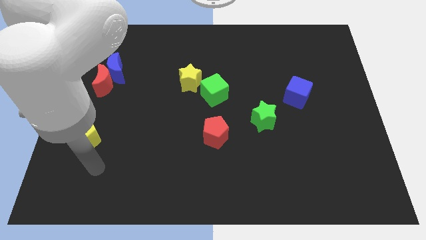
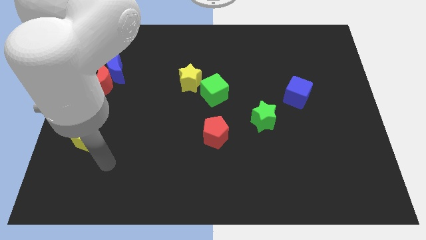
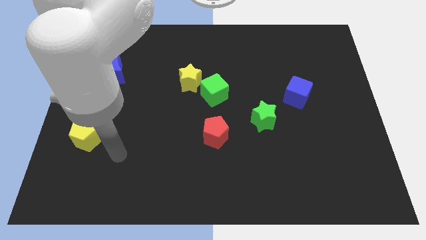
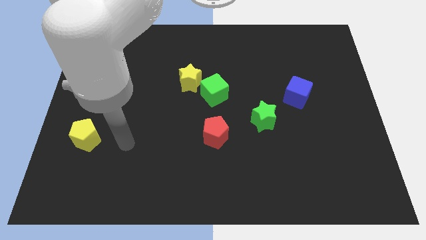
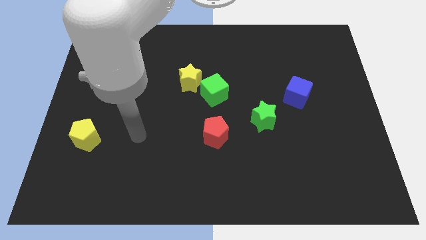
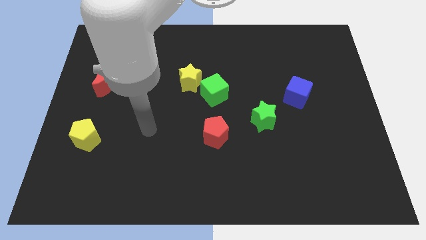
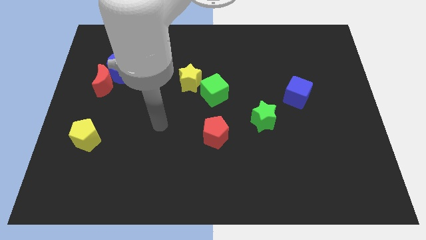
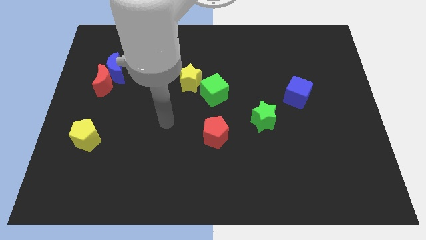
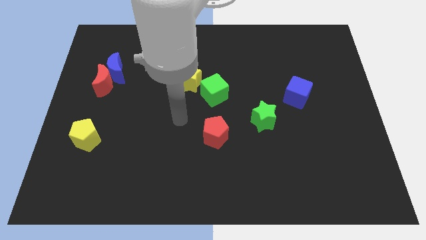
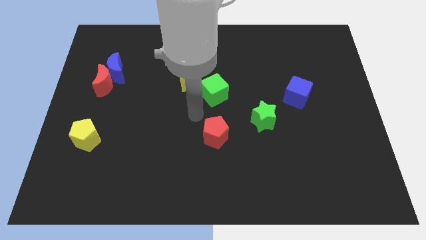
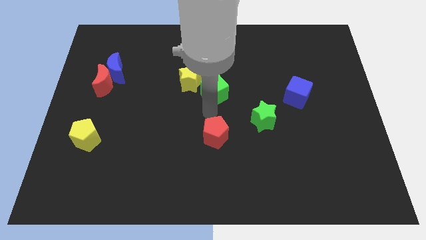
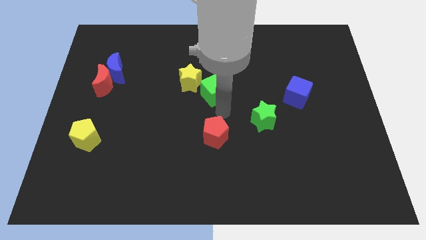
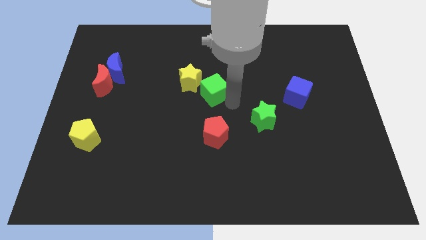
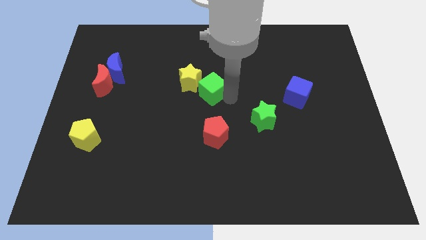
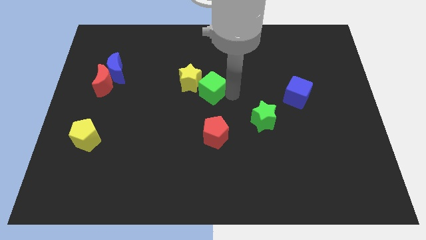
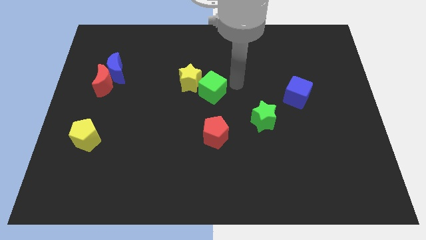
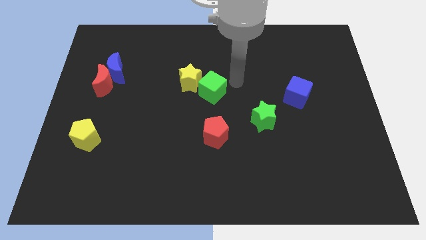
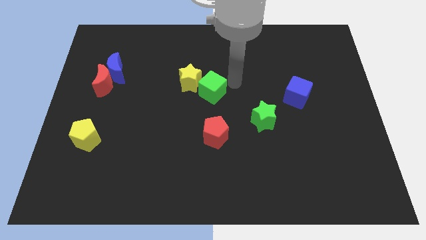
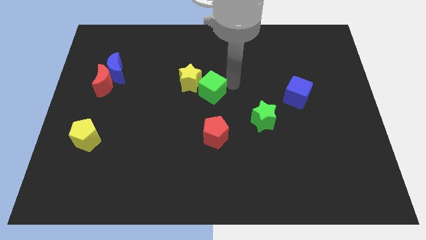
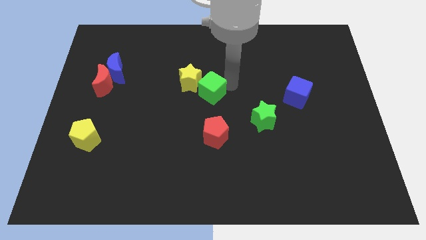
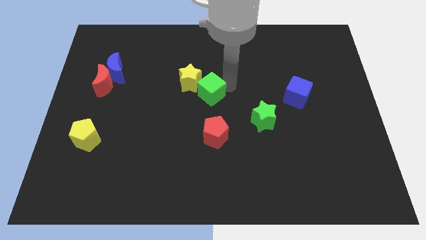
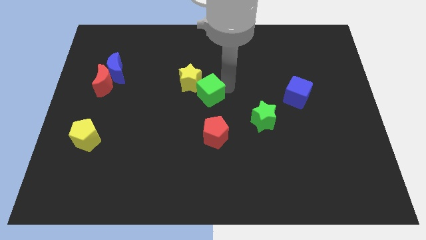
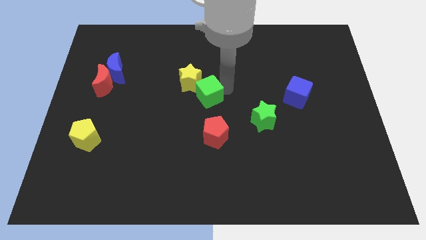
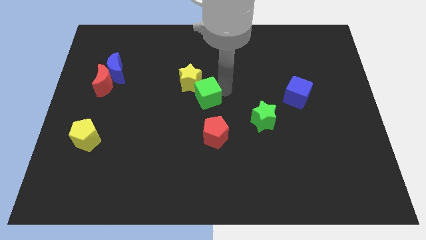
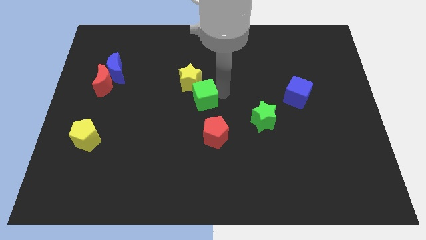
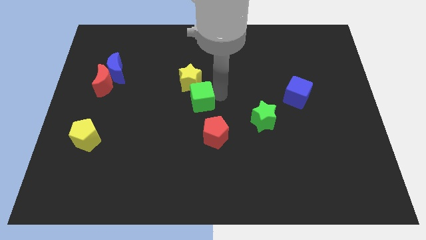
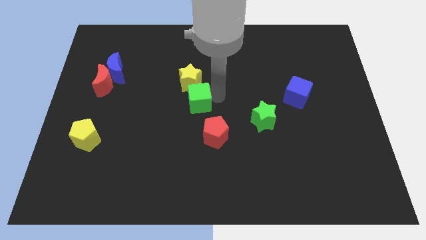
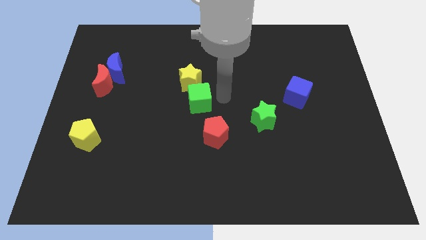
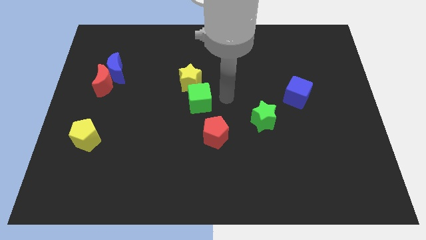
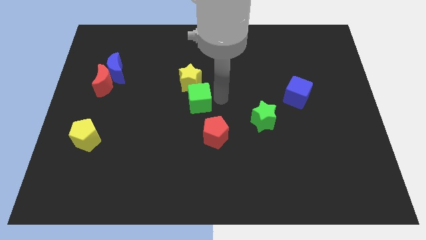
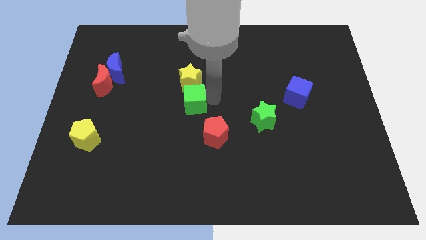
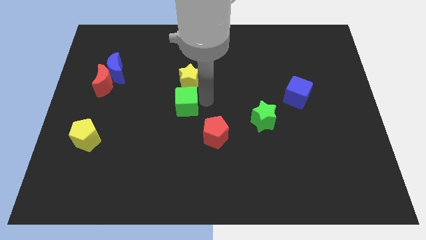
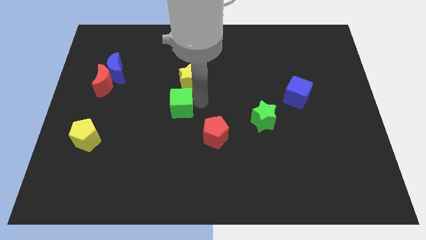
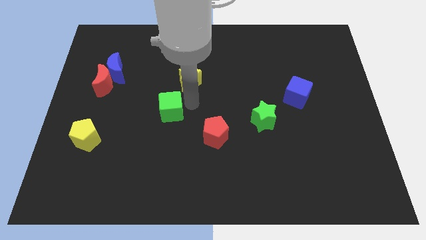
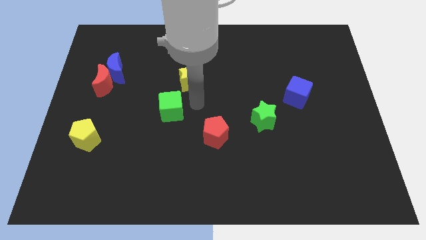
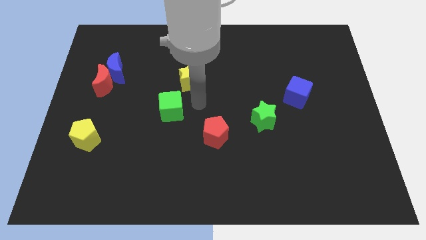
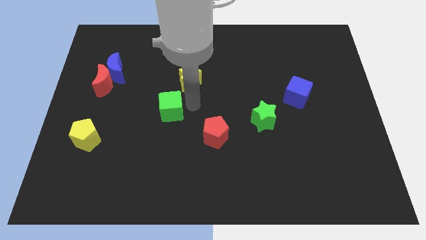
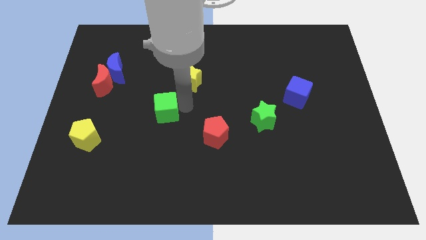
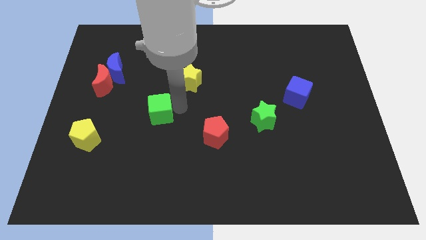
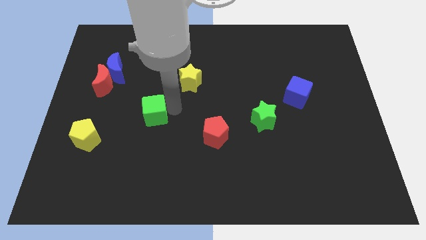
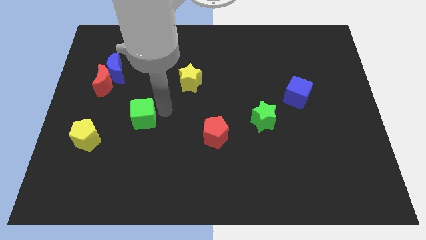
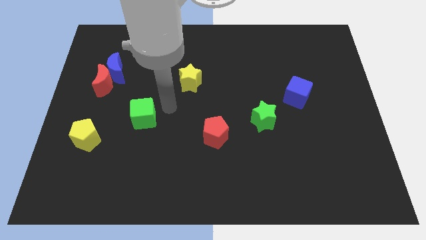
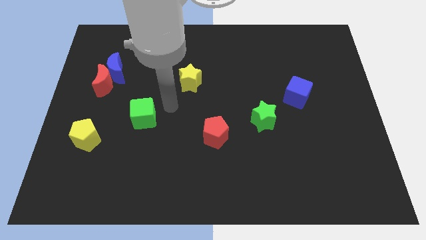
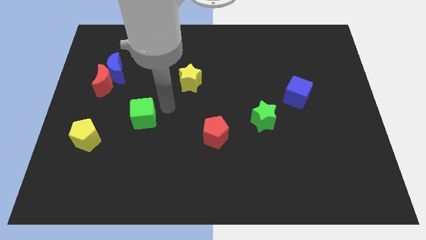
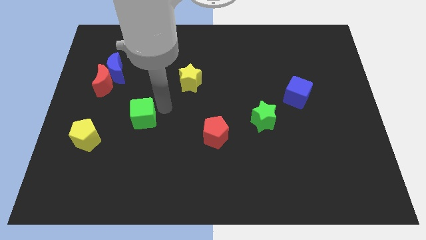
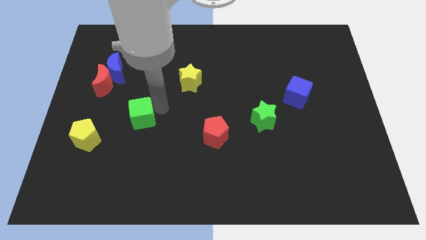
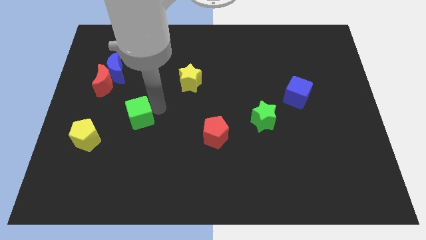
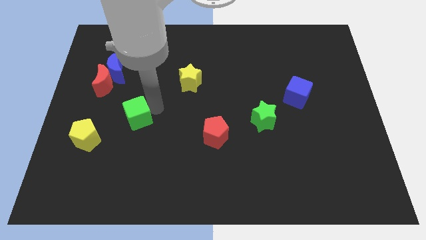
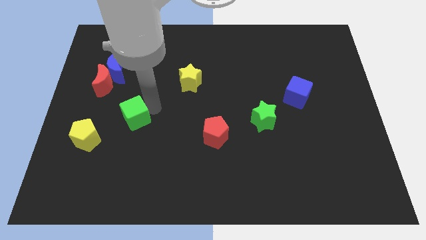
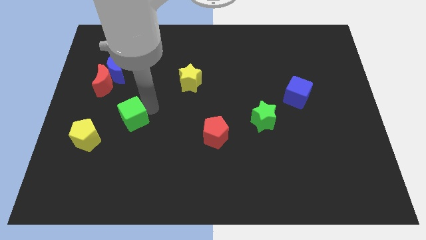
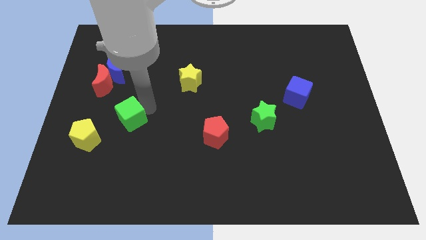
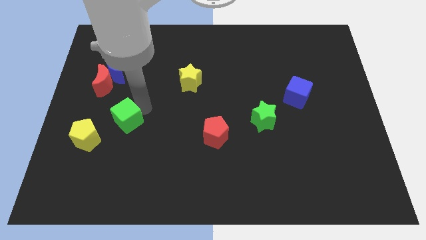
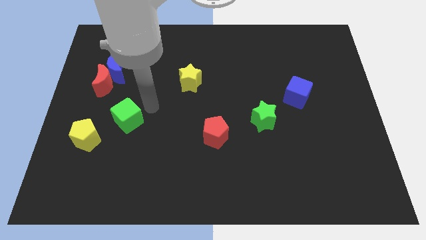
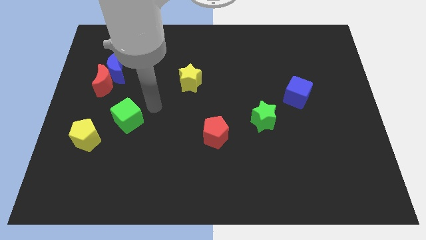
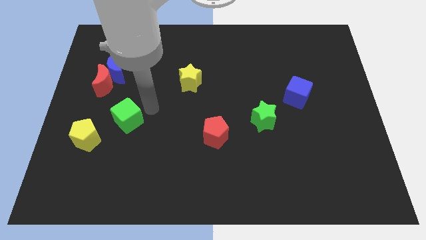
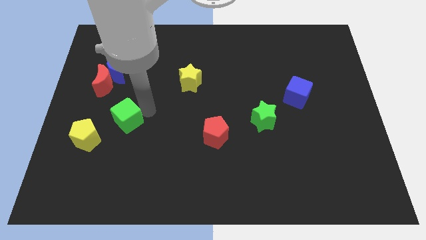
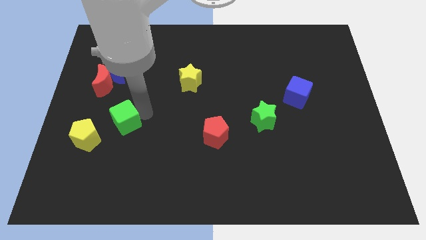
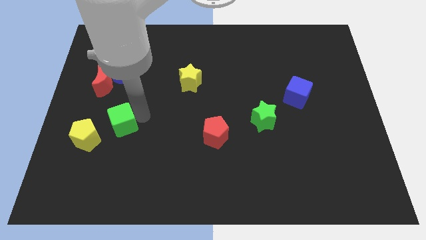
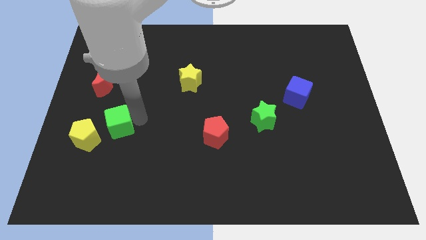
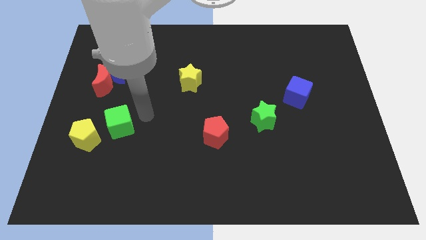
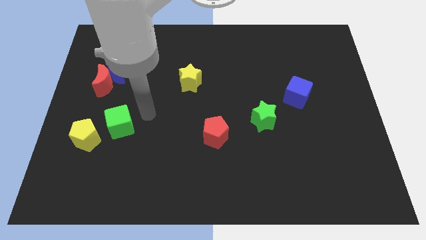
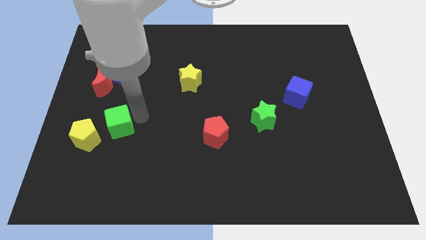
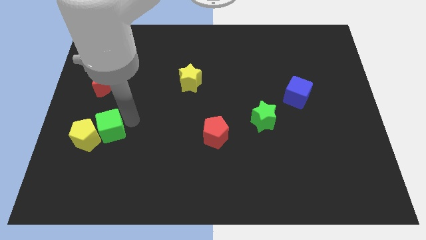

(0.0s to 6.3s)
slide the green cube towards the yellow pentagon

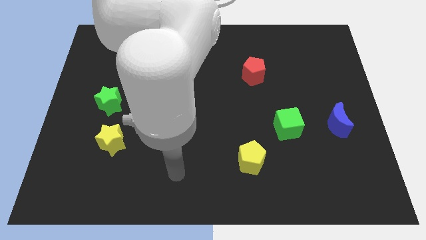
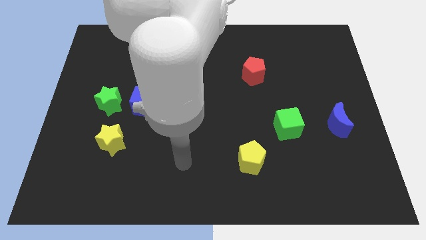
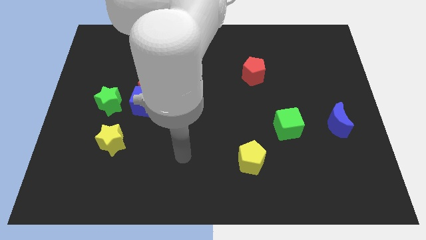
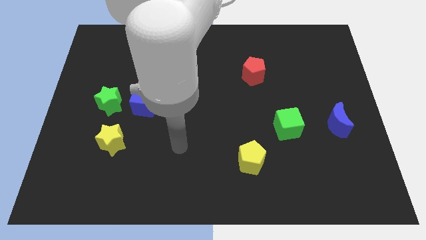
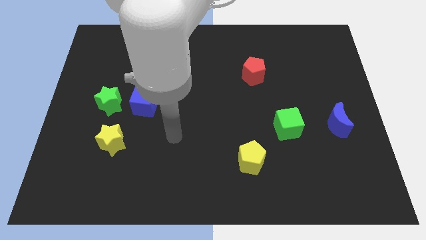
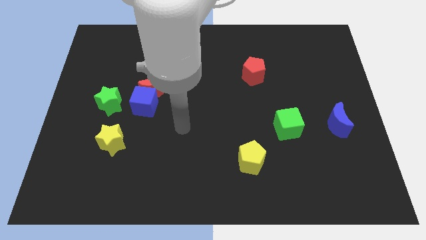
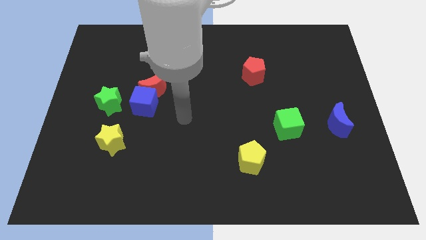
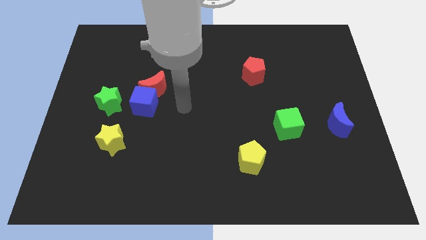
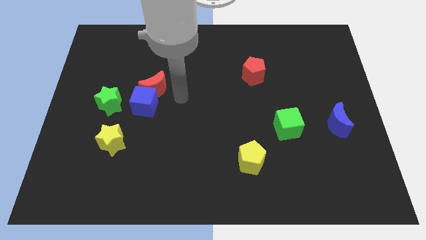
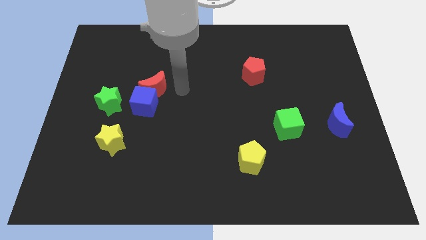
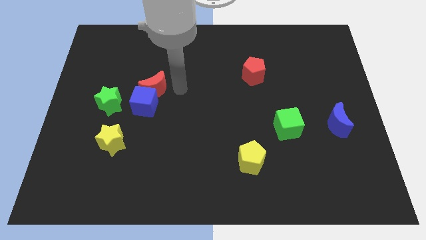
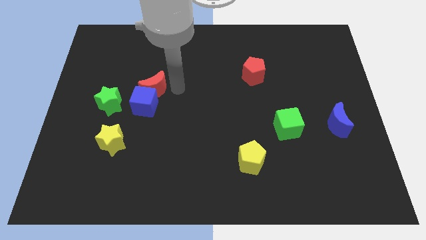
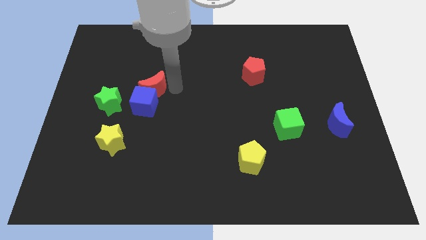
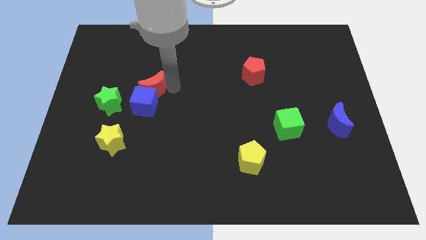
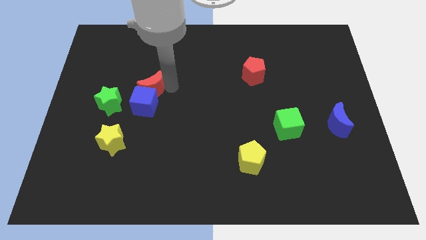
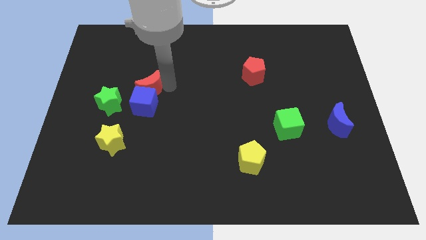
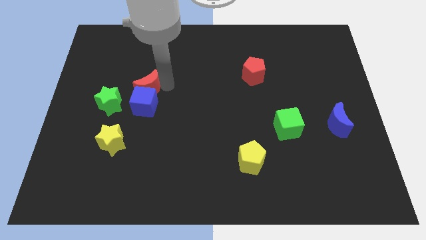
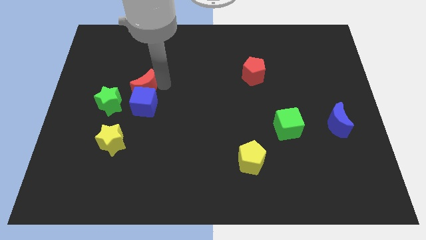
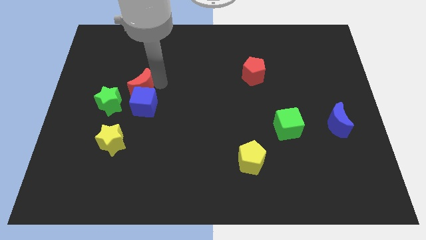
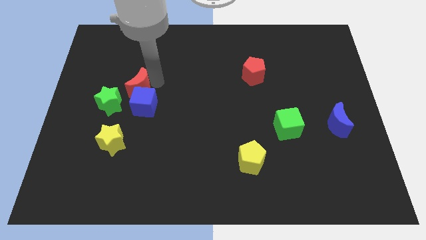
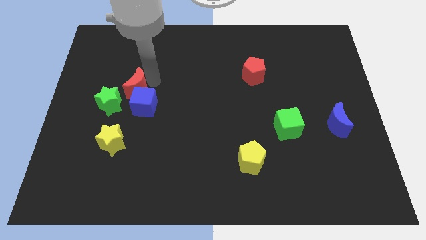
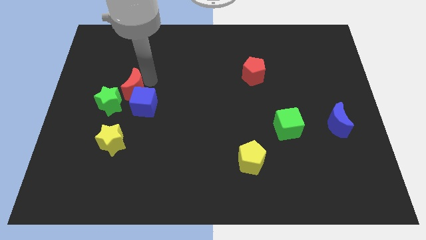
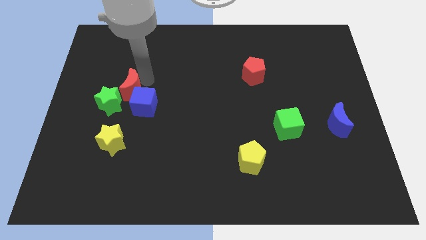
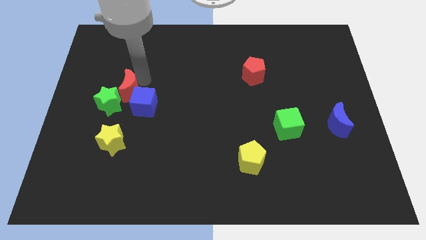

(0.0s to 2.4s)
slide the red moon to the green star
